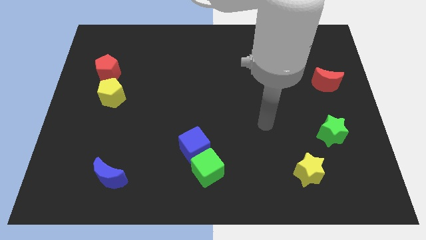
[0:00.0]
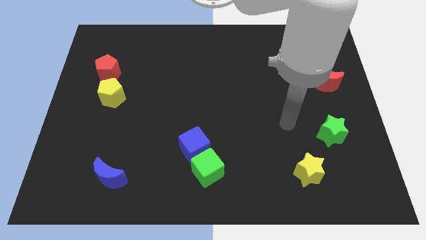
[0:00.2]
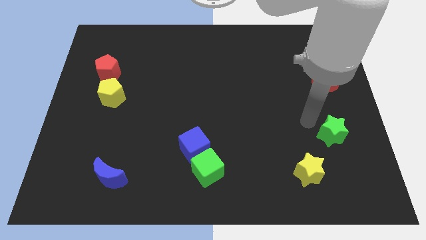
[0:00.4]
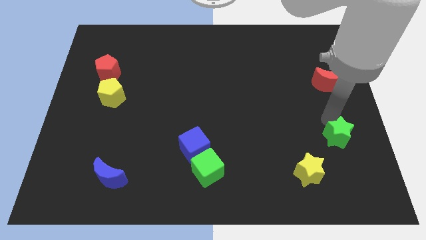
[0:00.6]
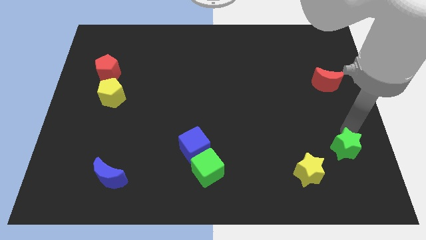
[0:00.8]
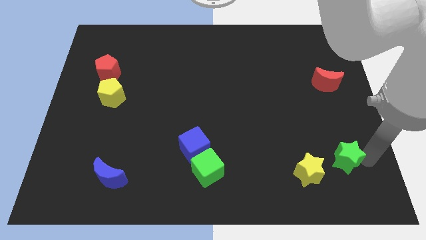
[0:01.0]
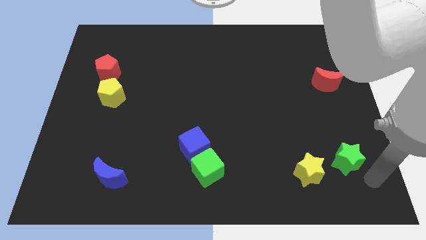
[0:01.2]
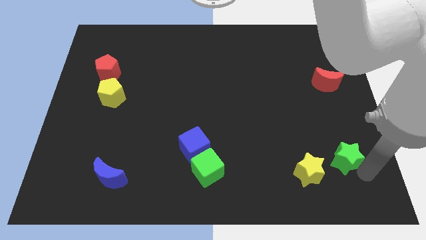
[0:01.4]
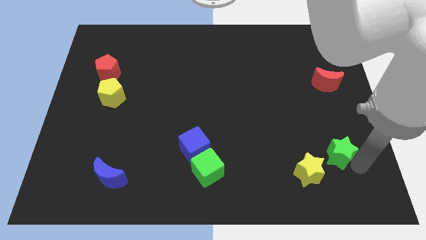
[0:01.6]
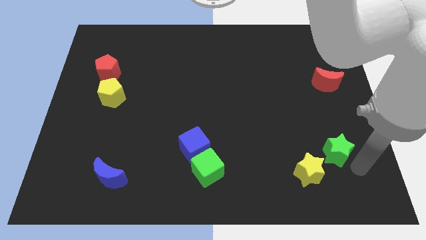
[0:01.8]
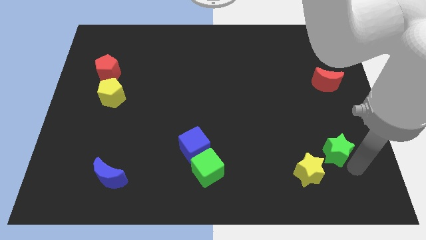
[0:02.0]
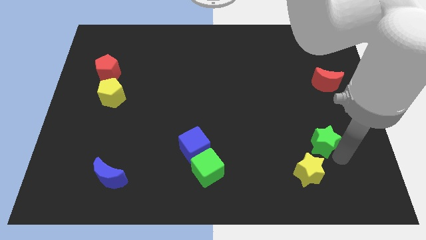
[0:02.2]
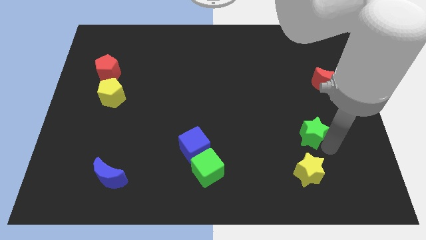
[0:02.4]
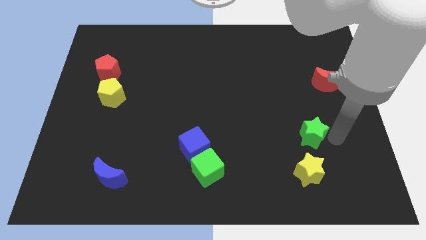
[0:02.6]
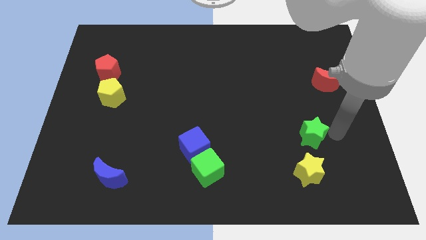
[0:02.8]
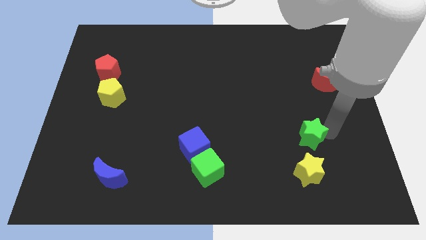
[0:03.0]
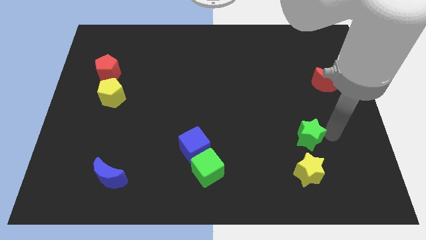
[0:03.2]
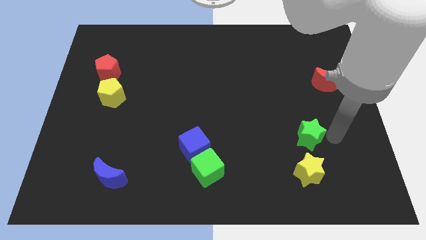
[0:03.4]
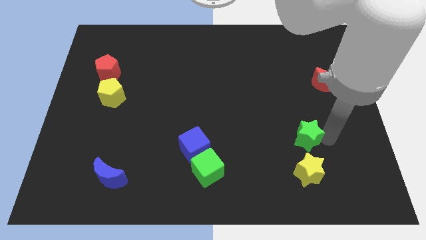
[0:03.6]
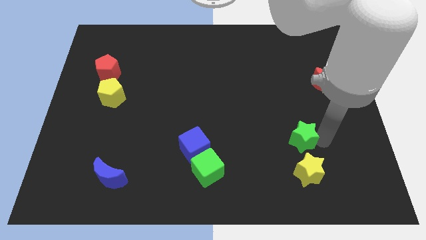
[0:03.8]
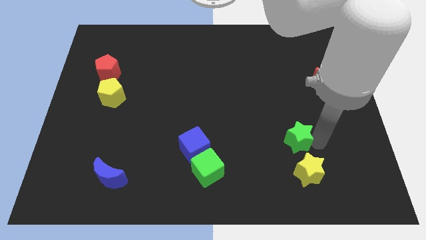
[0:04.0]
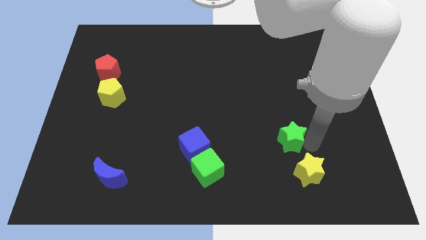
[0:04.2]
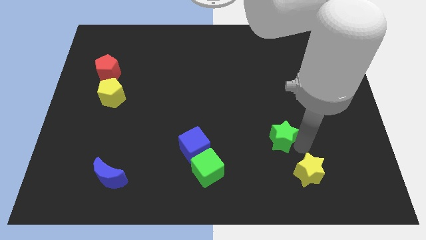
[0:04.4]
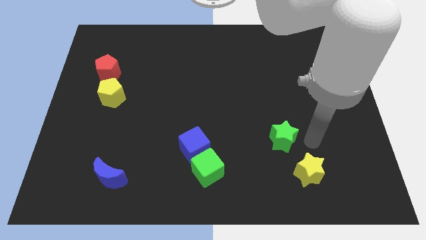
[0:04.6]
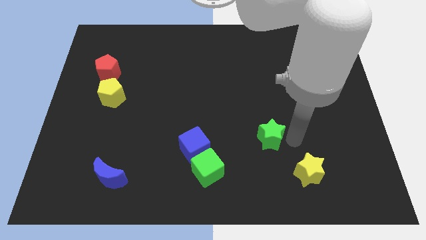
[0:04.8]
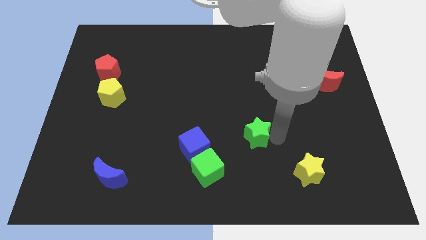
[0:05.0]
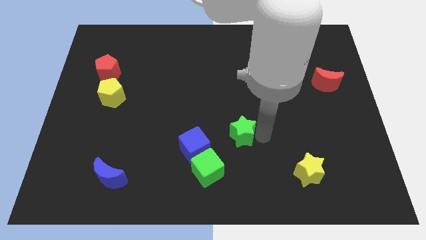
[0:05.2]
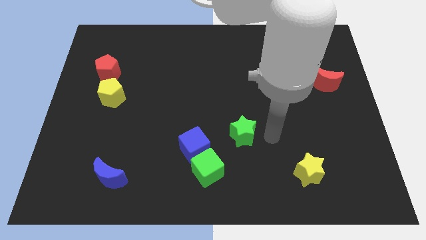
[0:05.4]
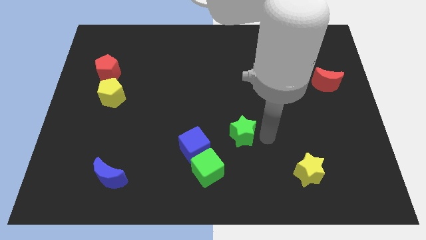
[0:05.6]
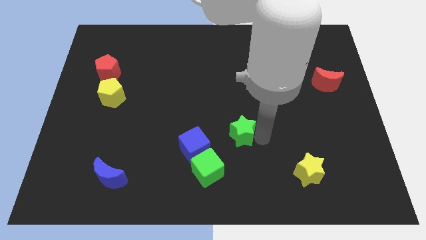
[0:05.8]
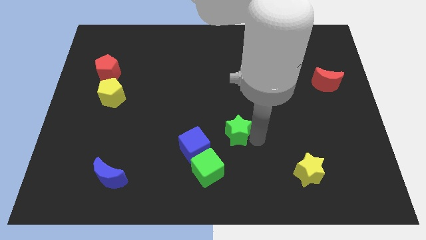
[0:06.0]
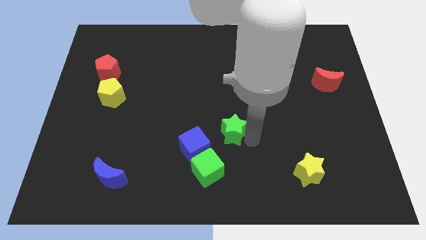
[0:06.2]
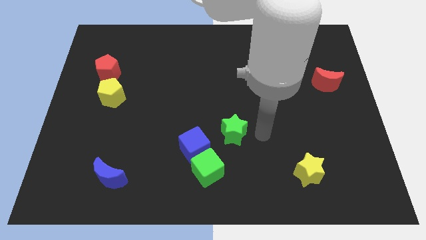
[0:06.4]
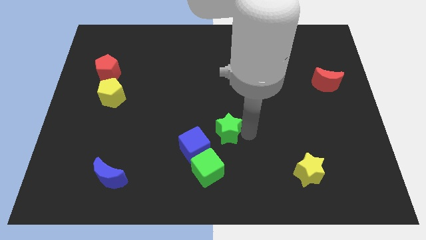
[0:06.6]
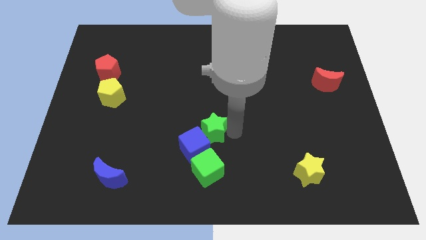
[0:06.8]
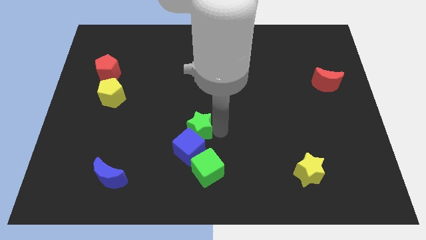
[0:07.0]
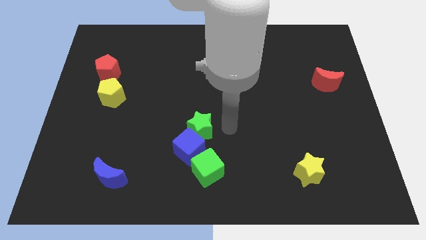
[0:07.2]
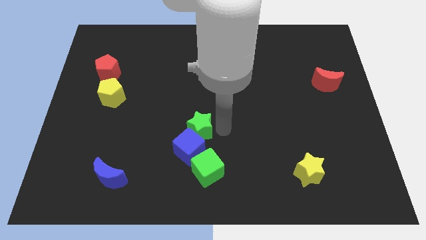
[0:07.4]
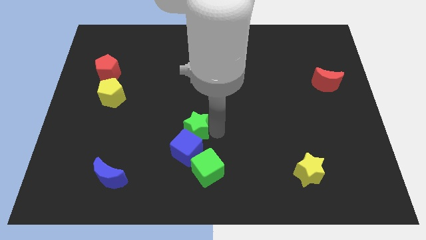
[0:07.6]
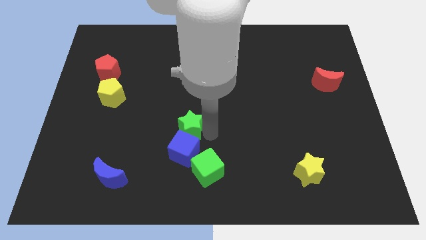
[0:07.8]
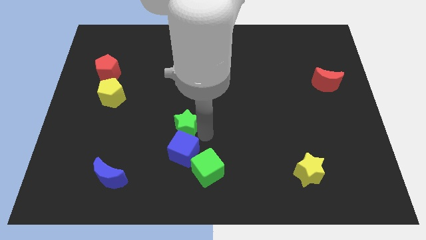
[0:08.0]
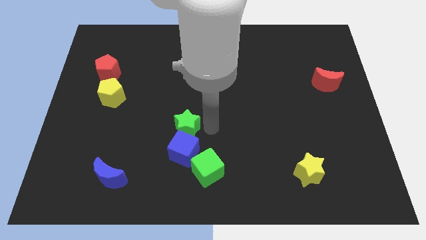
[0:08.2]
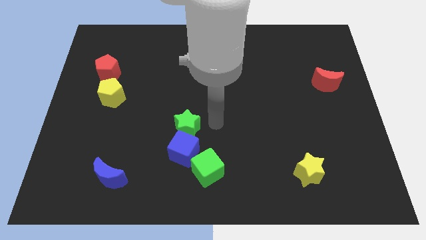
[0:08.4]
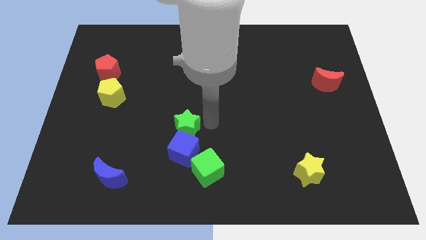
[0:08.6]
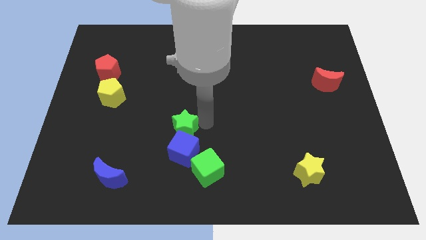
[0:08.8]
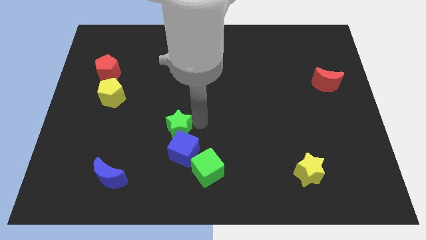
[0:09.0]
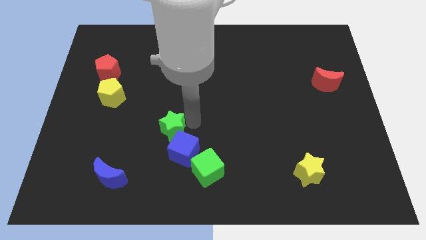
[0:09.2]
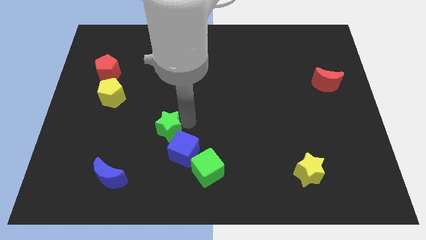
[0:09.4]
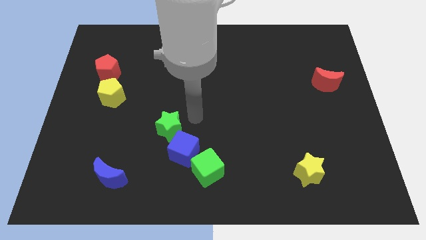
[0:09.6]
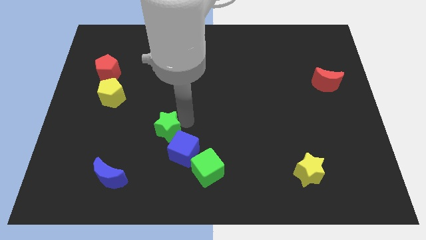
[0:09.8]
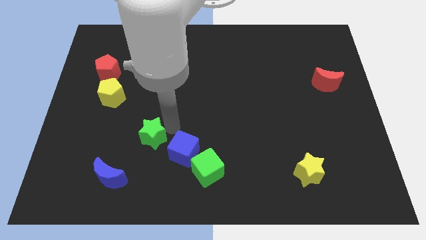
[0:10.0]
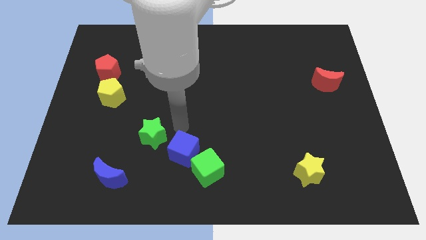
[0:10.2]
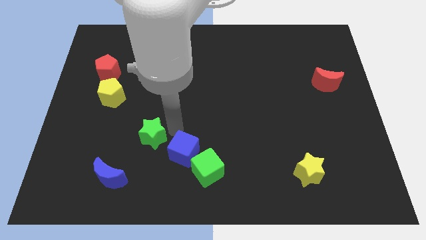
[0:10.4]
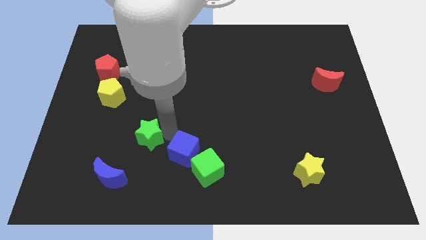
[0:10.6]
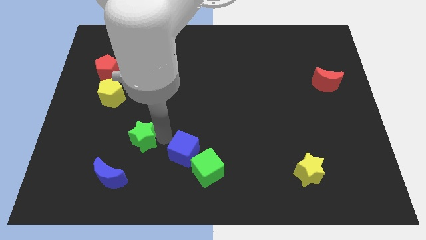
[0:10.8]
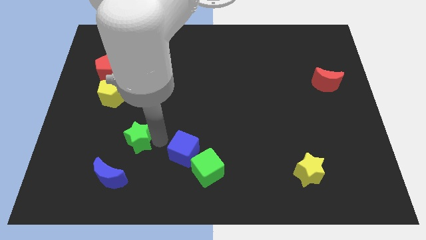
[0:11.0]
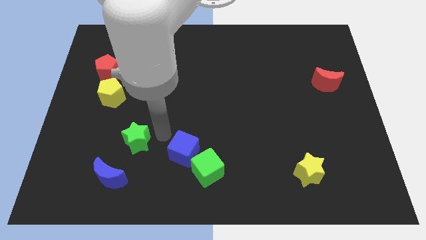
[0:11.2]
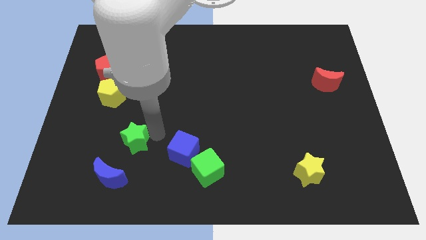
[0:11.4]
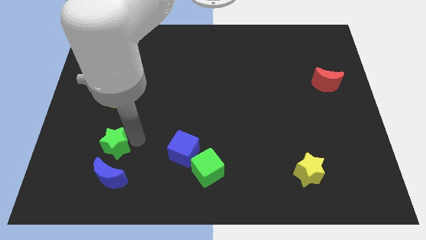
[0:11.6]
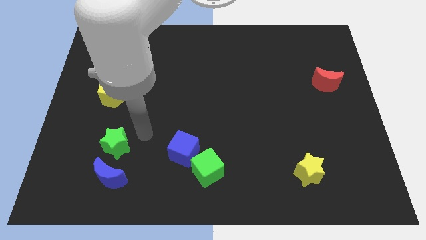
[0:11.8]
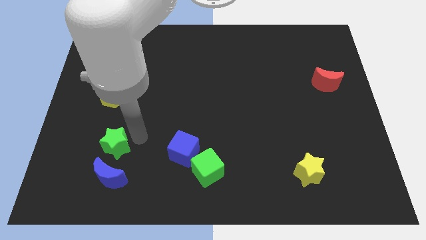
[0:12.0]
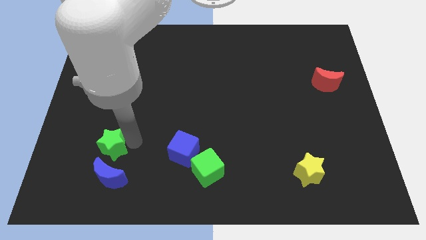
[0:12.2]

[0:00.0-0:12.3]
put the green star to the top left side of the blue moon

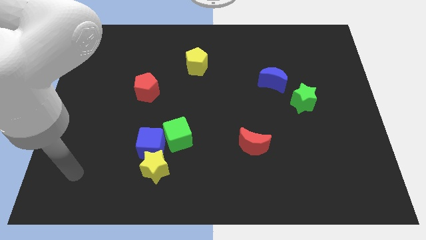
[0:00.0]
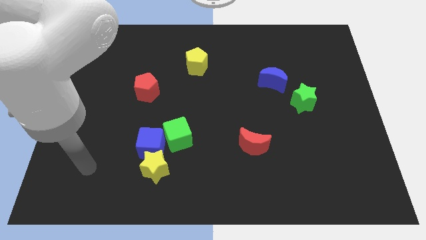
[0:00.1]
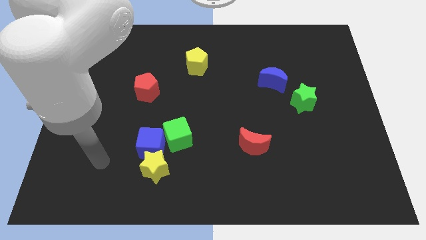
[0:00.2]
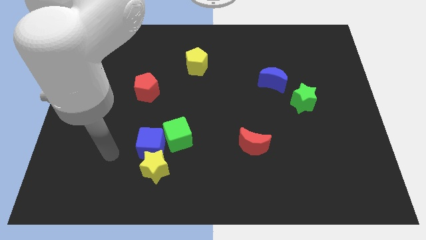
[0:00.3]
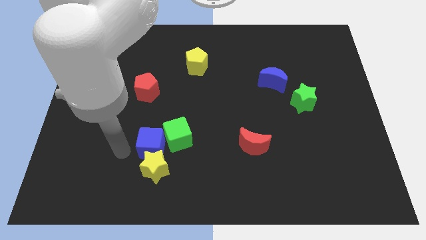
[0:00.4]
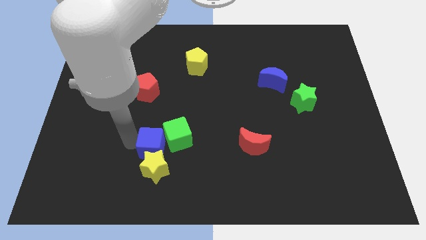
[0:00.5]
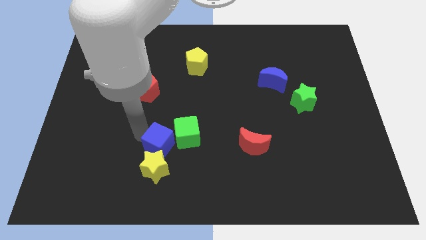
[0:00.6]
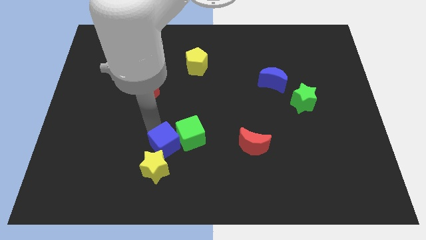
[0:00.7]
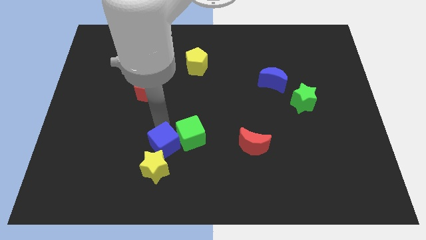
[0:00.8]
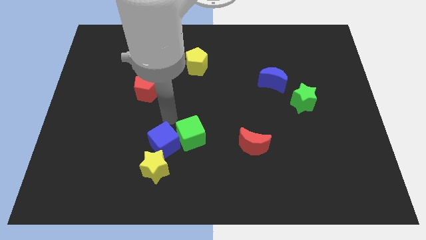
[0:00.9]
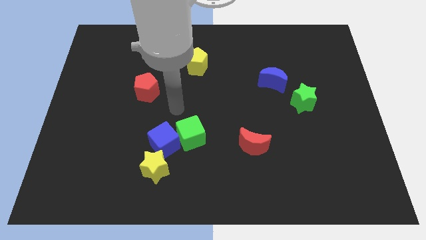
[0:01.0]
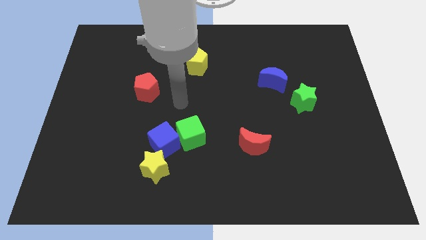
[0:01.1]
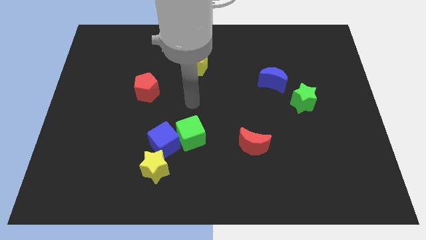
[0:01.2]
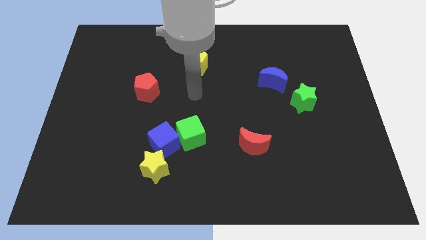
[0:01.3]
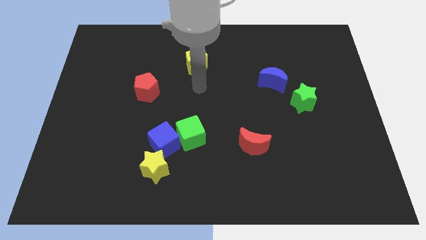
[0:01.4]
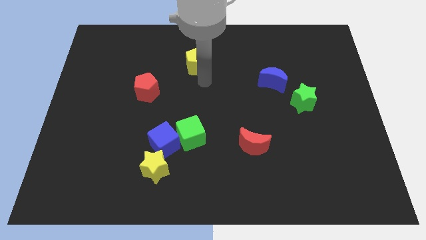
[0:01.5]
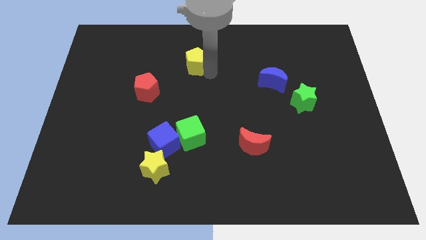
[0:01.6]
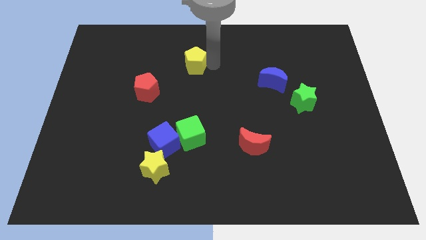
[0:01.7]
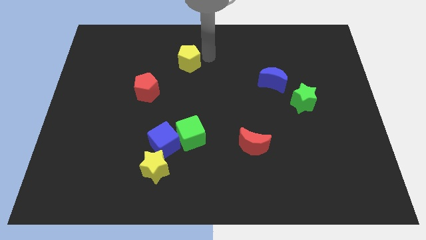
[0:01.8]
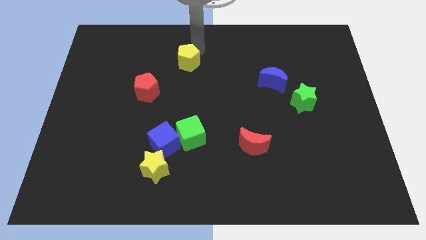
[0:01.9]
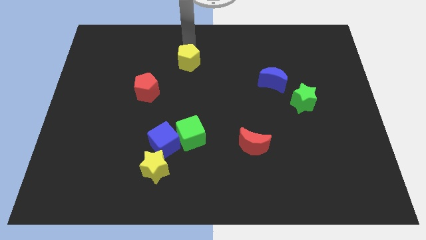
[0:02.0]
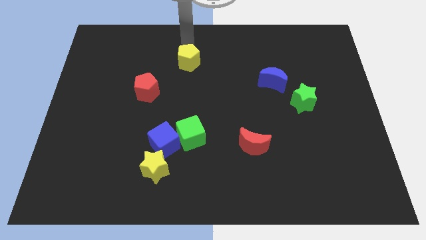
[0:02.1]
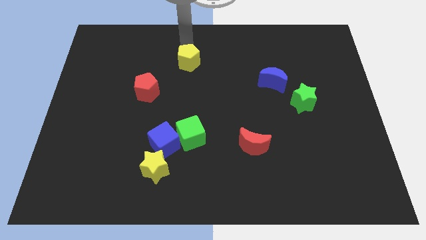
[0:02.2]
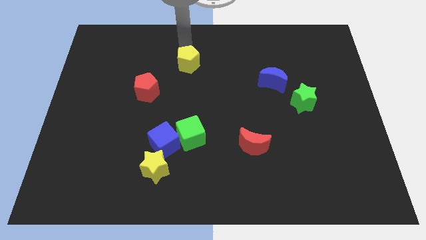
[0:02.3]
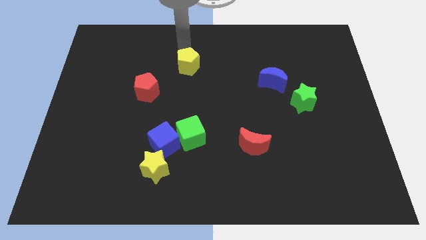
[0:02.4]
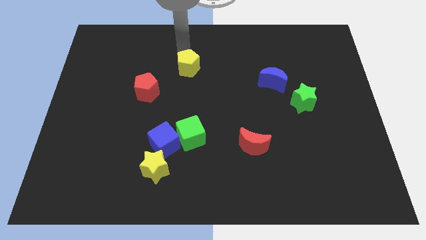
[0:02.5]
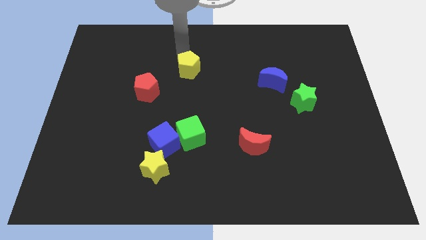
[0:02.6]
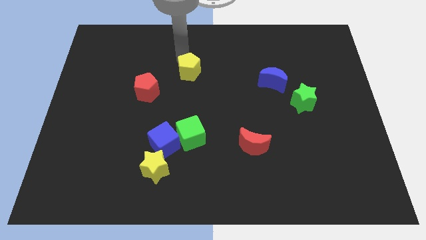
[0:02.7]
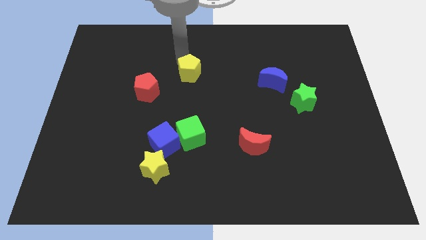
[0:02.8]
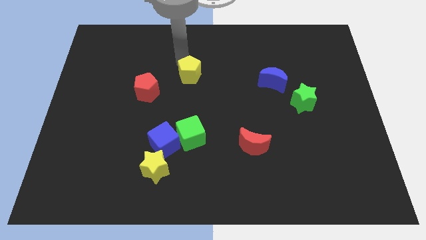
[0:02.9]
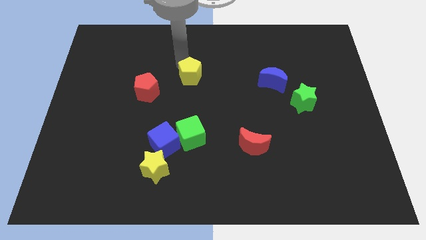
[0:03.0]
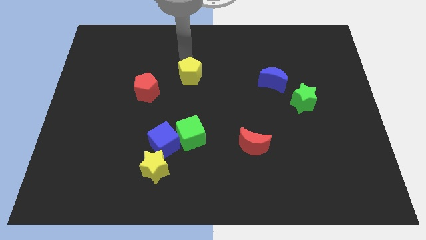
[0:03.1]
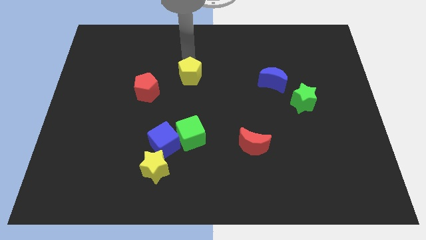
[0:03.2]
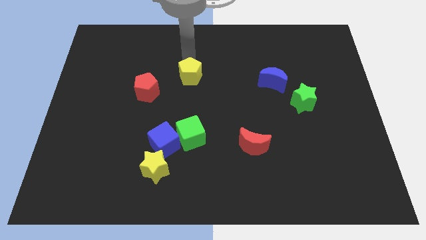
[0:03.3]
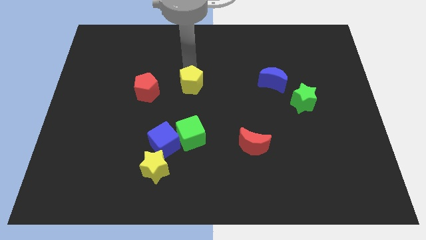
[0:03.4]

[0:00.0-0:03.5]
put the yellow pentagon above the green cube
